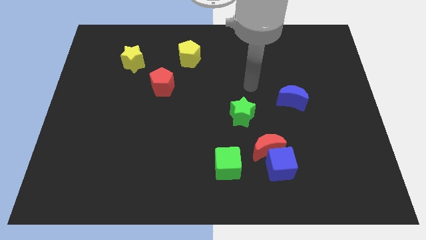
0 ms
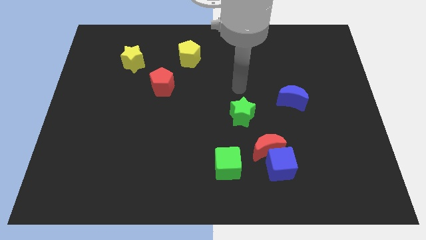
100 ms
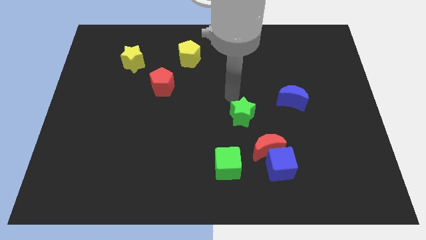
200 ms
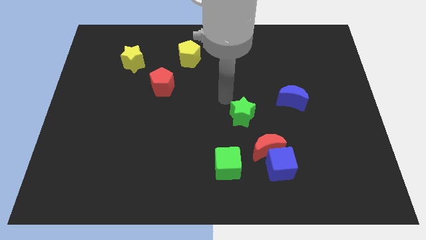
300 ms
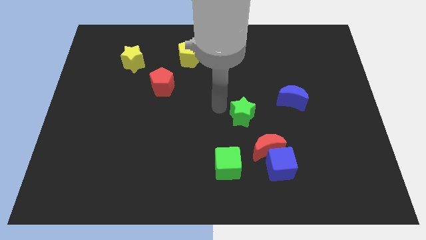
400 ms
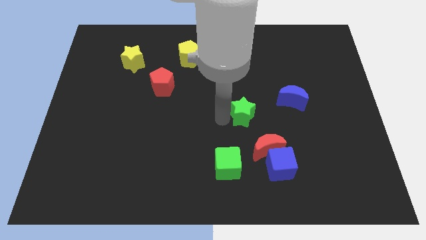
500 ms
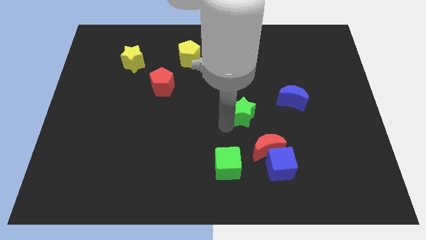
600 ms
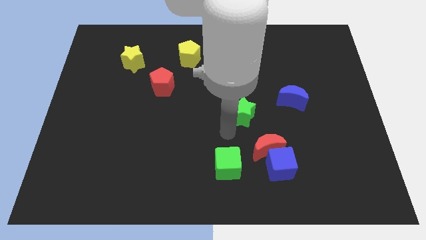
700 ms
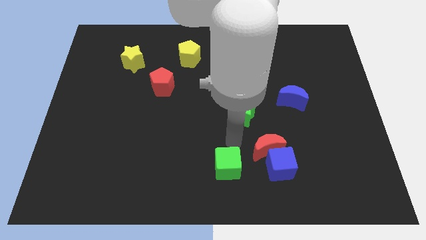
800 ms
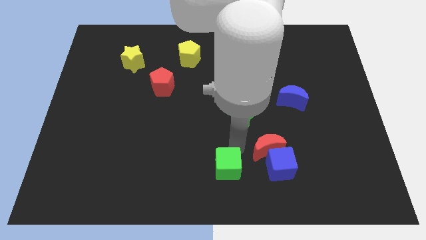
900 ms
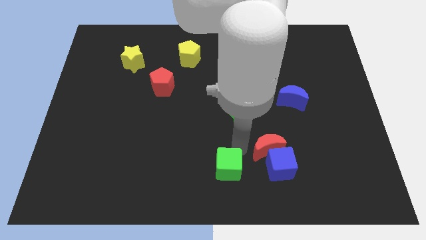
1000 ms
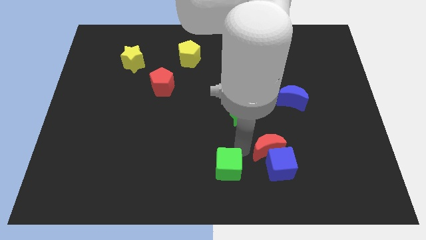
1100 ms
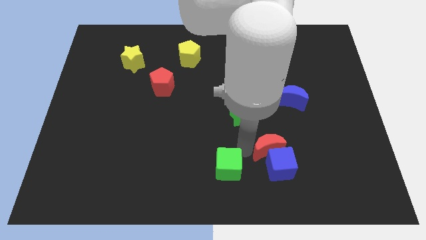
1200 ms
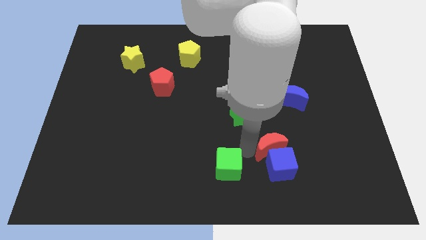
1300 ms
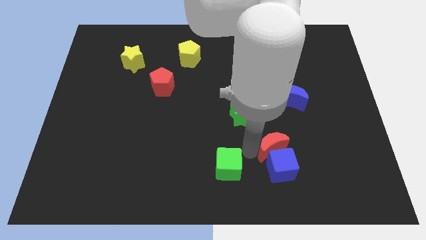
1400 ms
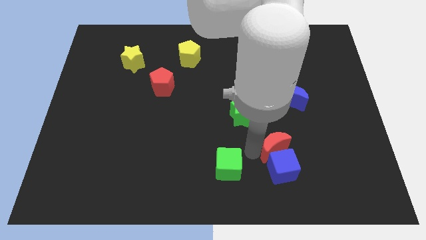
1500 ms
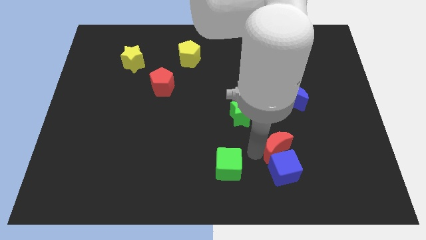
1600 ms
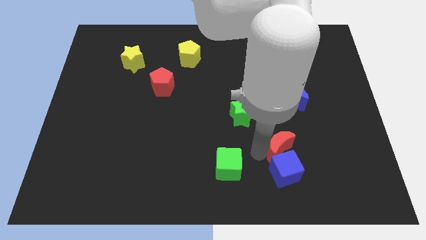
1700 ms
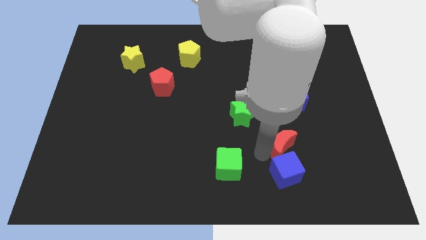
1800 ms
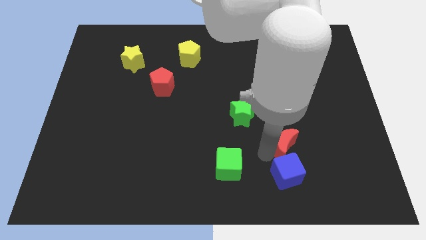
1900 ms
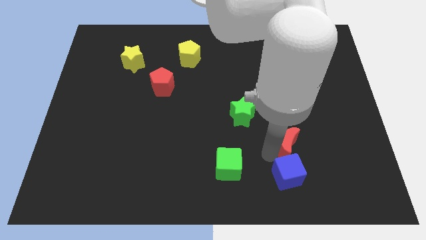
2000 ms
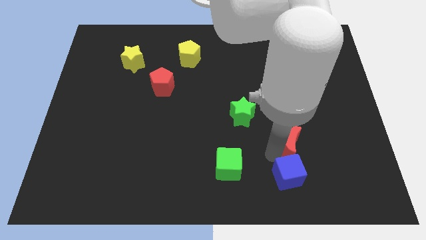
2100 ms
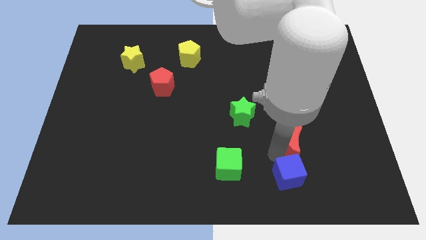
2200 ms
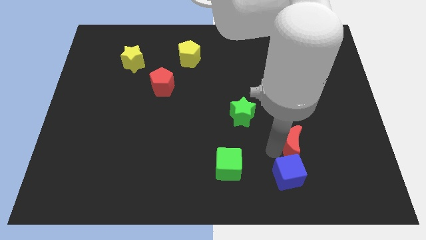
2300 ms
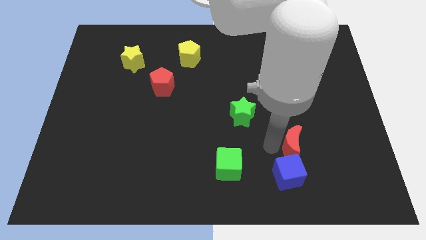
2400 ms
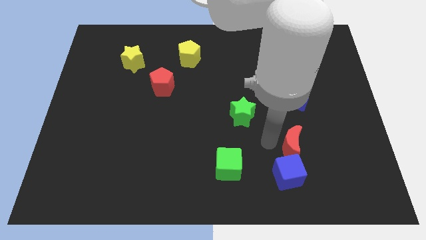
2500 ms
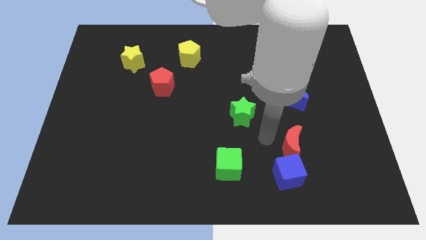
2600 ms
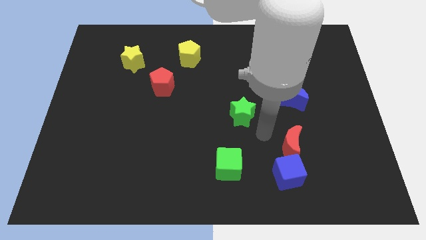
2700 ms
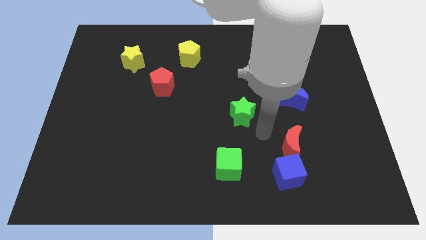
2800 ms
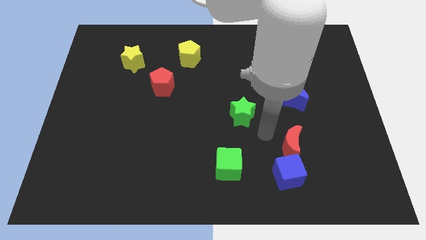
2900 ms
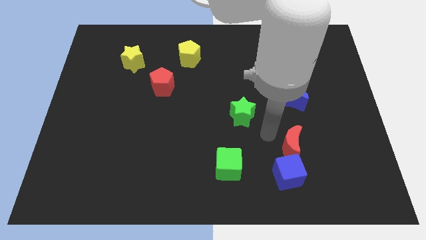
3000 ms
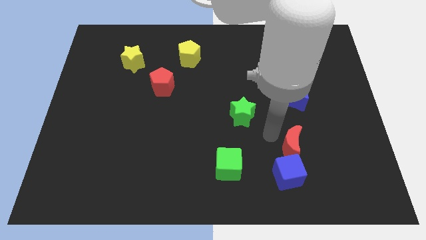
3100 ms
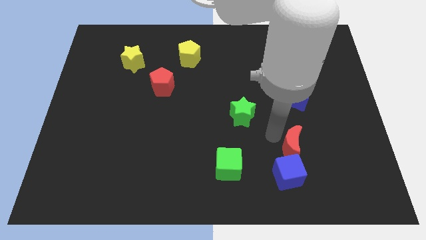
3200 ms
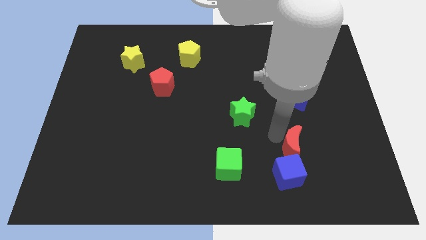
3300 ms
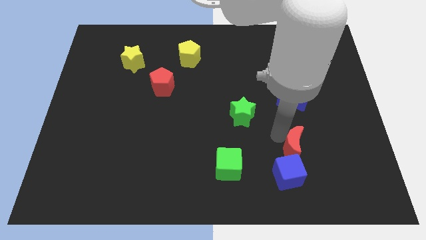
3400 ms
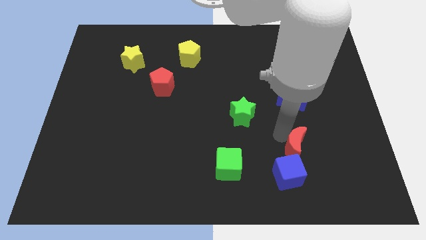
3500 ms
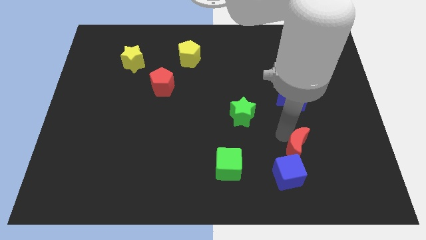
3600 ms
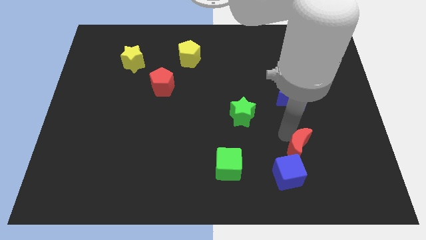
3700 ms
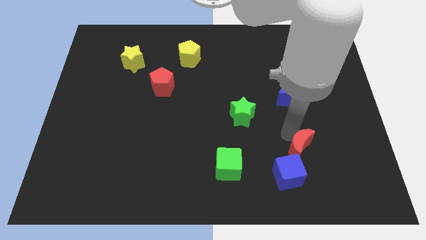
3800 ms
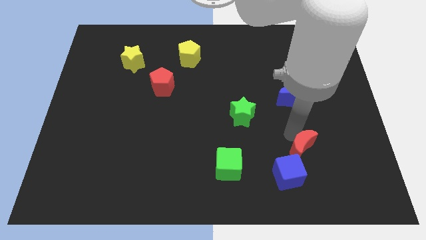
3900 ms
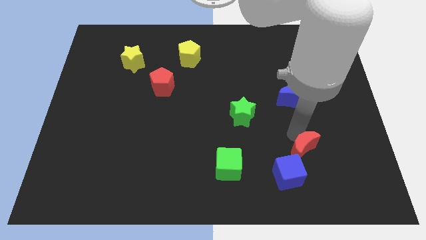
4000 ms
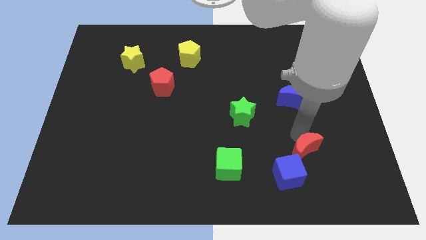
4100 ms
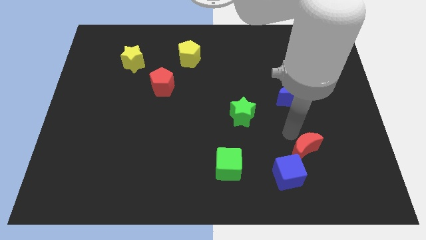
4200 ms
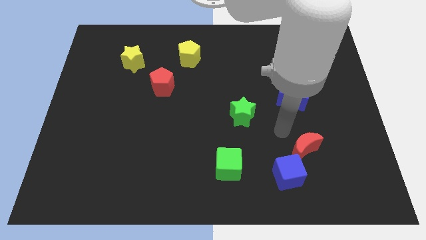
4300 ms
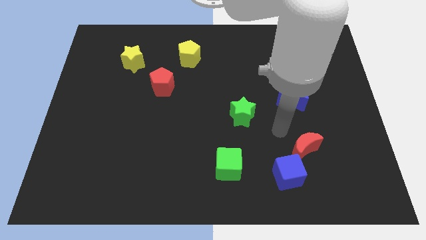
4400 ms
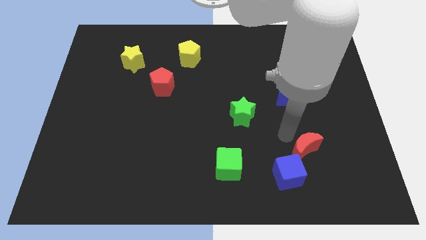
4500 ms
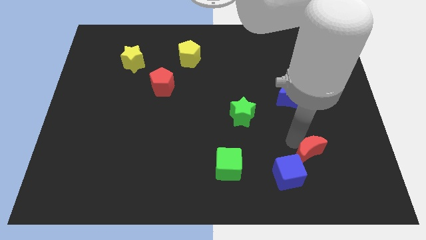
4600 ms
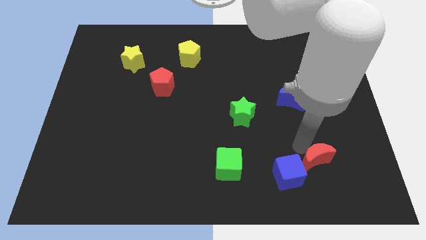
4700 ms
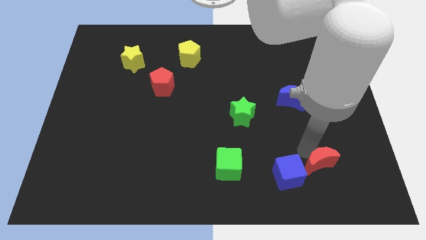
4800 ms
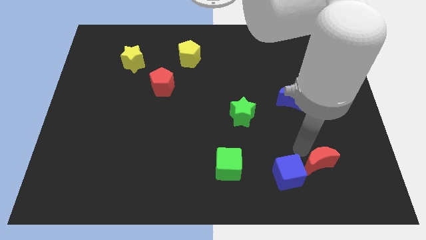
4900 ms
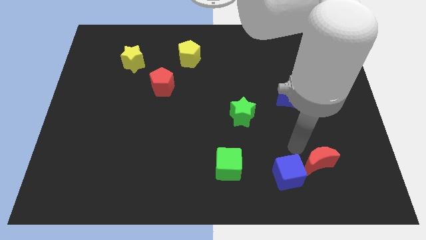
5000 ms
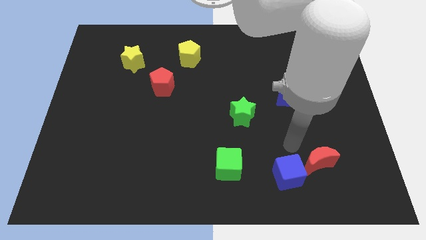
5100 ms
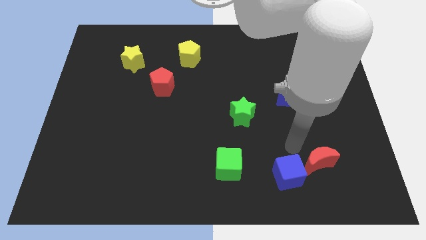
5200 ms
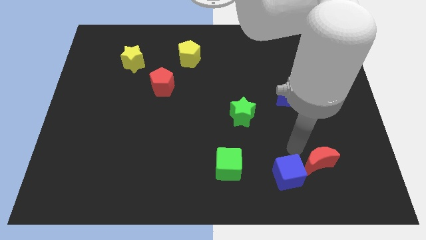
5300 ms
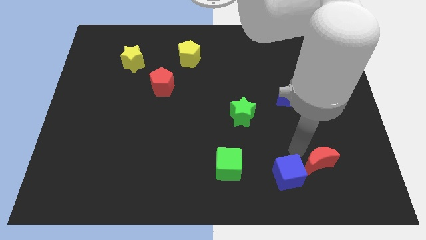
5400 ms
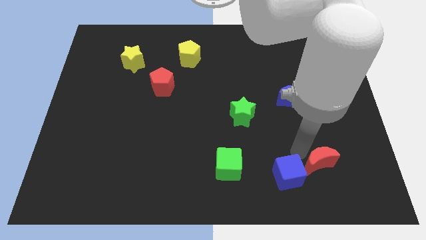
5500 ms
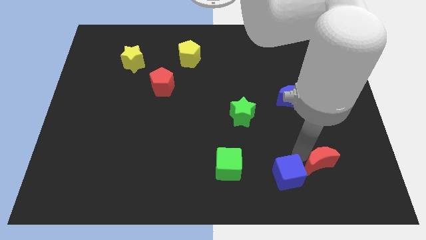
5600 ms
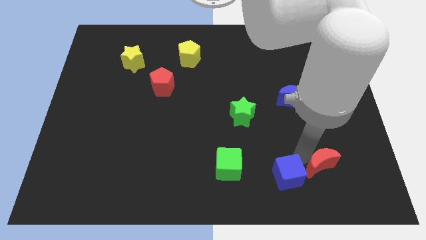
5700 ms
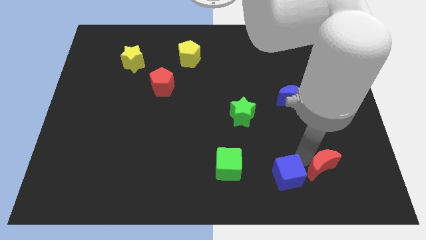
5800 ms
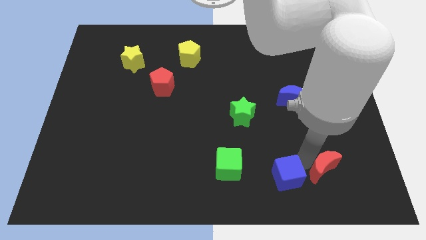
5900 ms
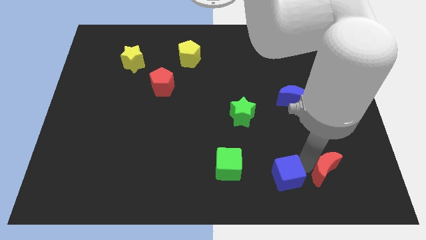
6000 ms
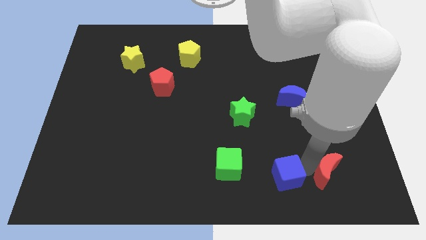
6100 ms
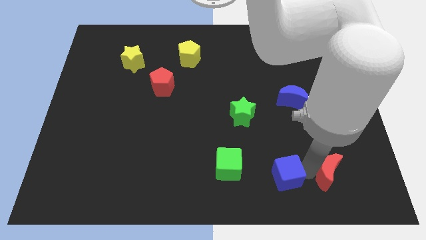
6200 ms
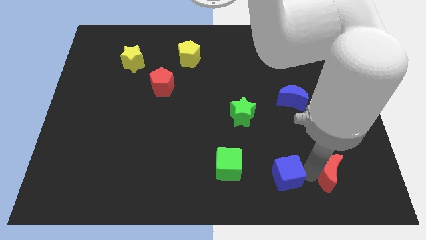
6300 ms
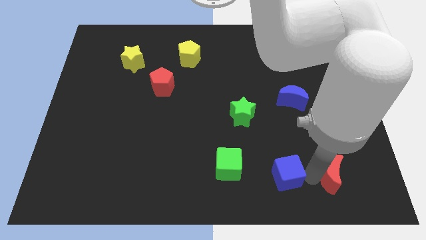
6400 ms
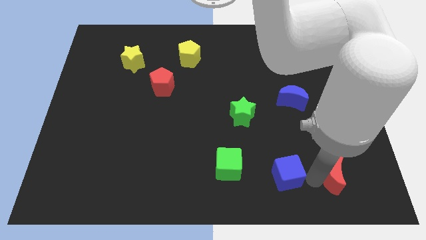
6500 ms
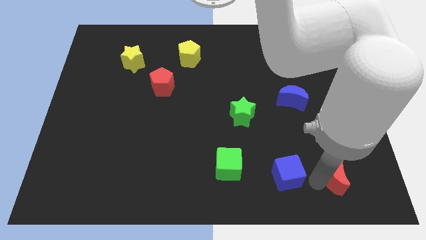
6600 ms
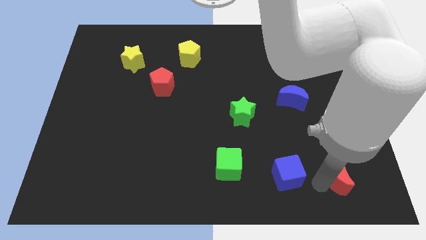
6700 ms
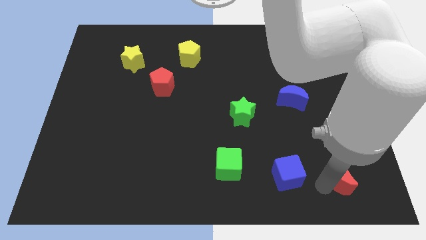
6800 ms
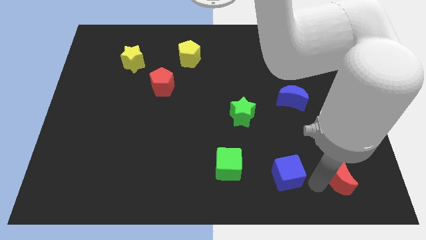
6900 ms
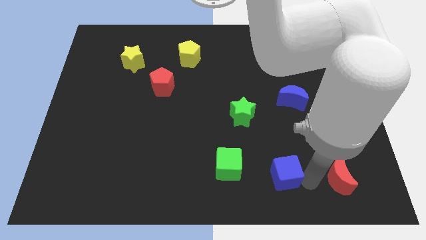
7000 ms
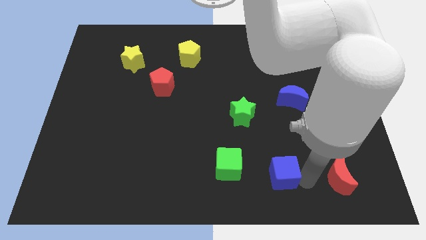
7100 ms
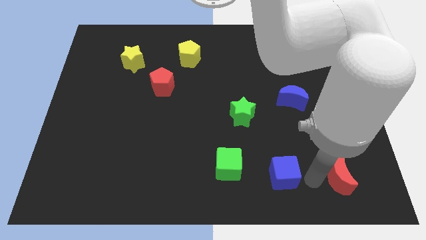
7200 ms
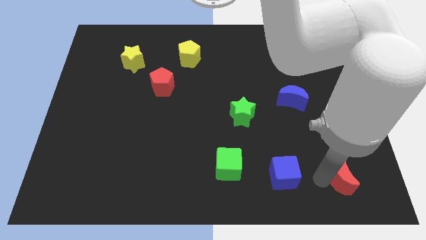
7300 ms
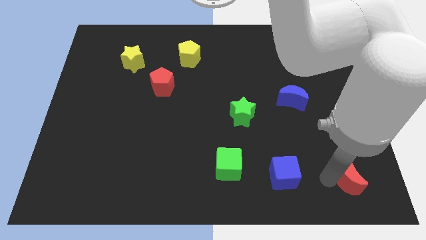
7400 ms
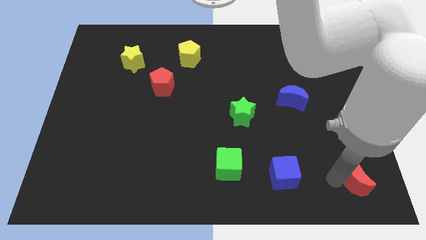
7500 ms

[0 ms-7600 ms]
put the red moon to the bottom right
